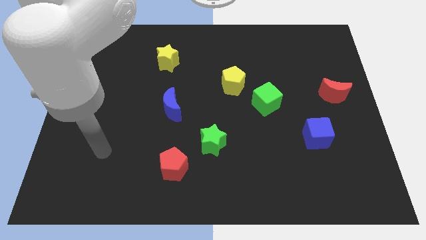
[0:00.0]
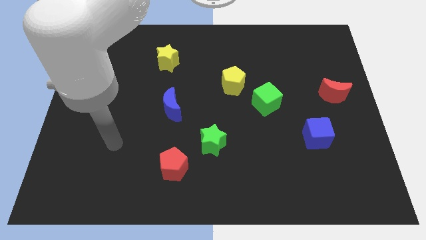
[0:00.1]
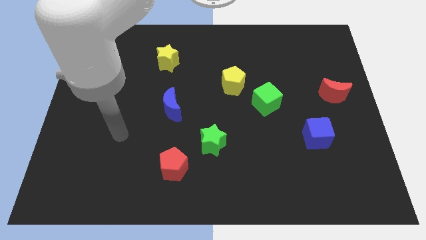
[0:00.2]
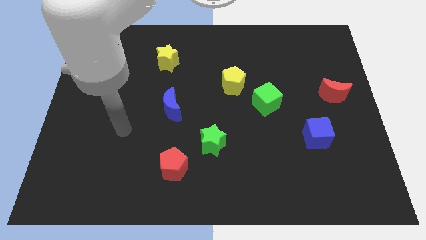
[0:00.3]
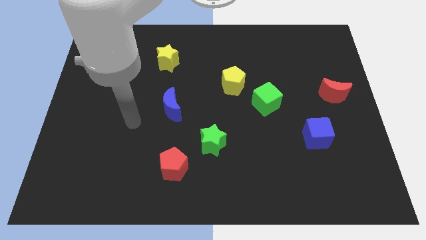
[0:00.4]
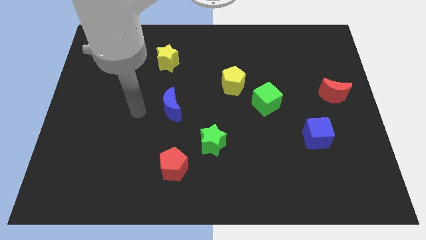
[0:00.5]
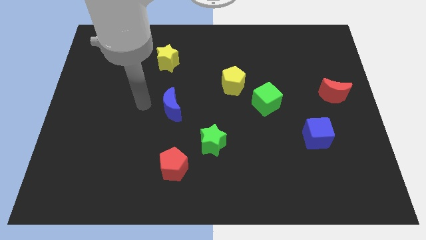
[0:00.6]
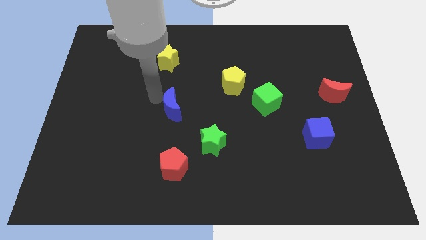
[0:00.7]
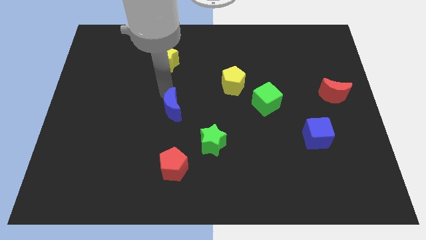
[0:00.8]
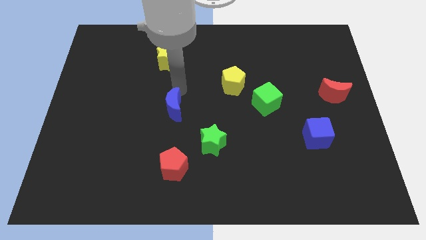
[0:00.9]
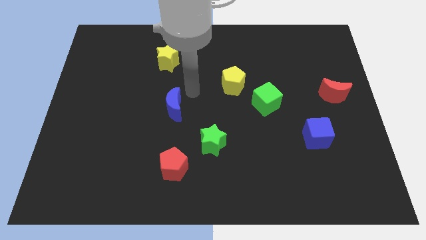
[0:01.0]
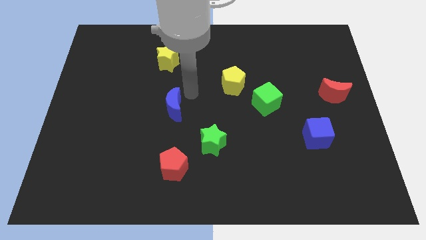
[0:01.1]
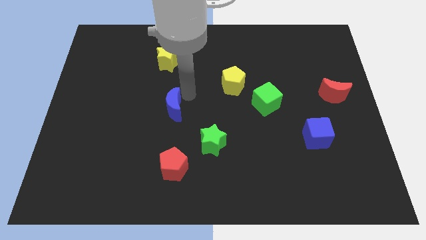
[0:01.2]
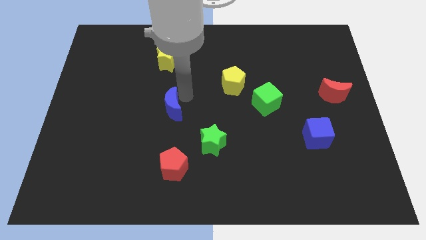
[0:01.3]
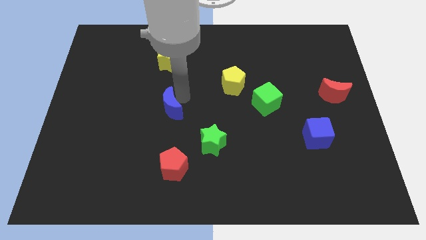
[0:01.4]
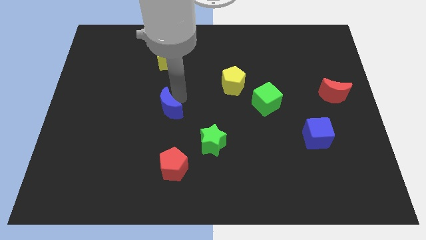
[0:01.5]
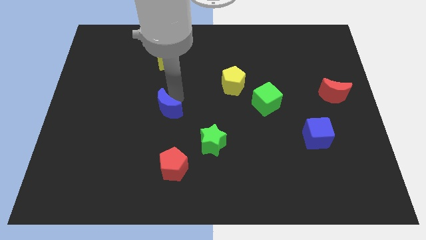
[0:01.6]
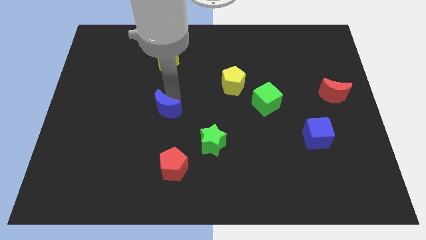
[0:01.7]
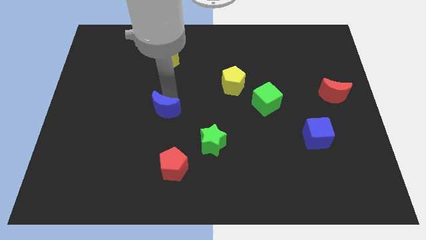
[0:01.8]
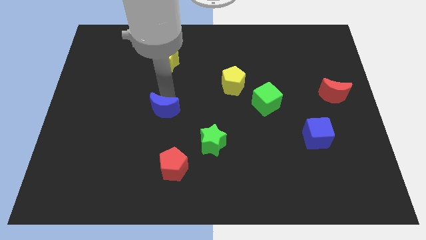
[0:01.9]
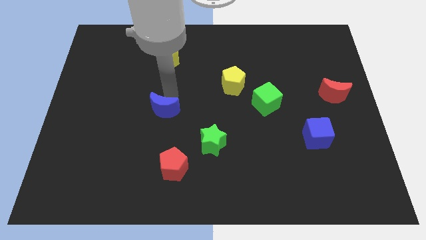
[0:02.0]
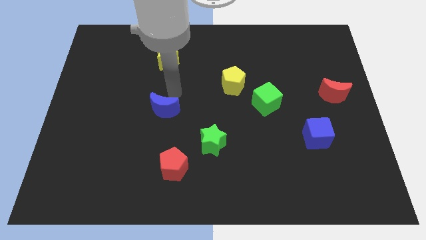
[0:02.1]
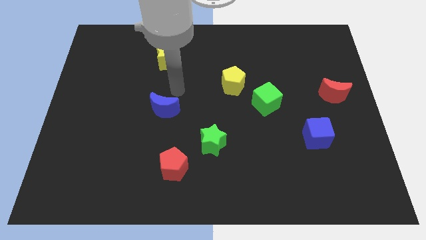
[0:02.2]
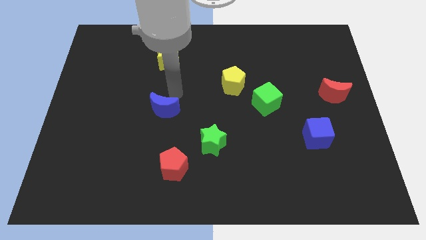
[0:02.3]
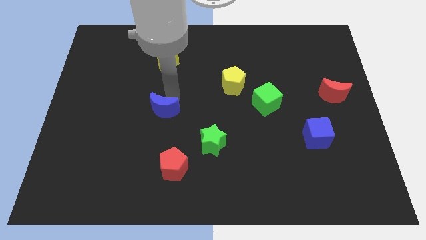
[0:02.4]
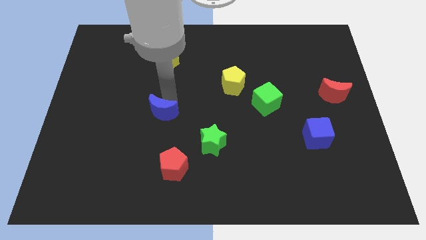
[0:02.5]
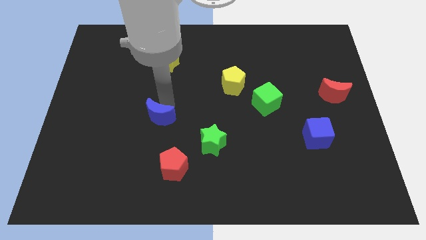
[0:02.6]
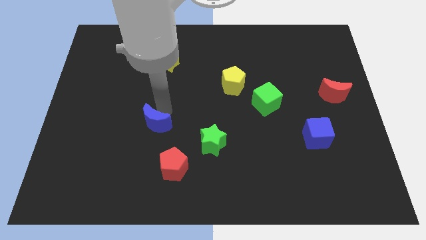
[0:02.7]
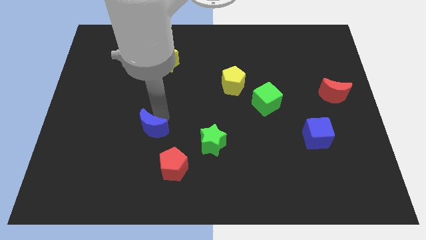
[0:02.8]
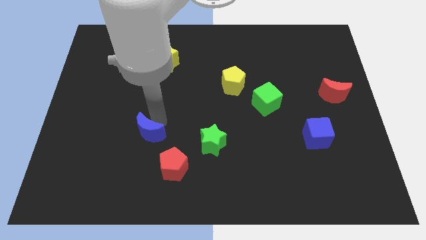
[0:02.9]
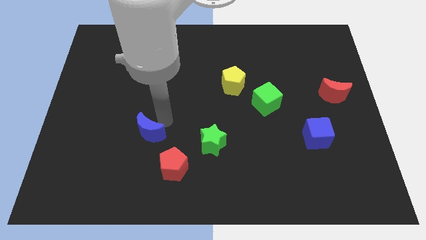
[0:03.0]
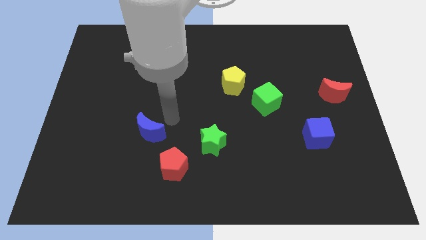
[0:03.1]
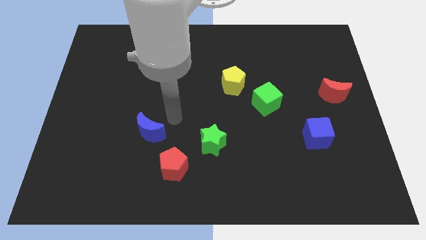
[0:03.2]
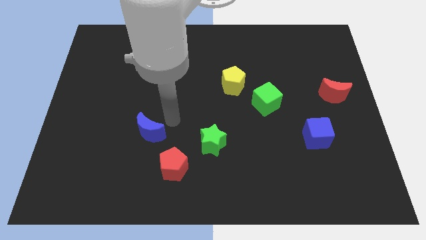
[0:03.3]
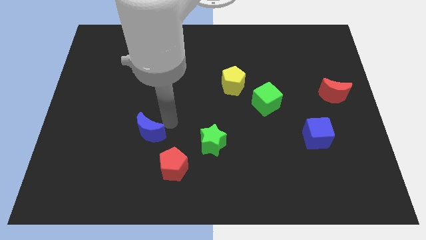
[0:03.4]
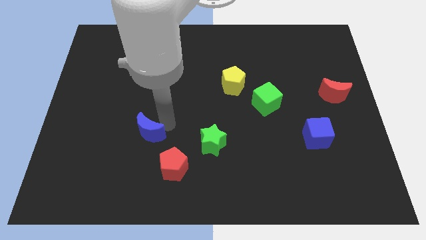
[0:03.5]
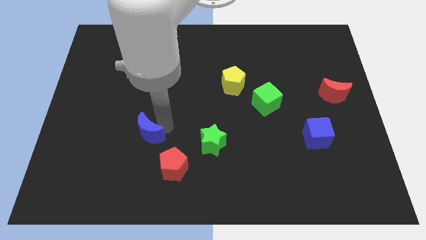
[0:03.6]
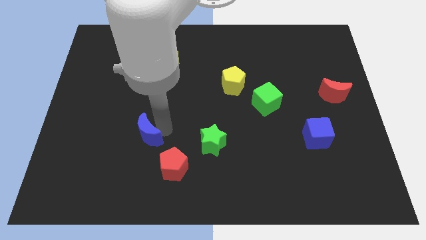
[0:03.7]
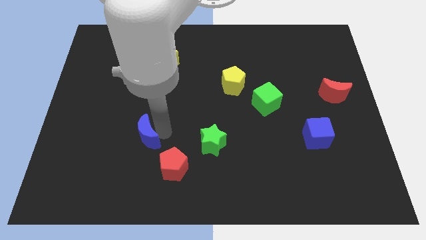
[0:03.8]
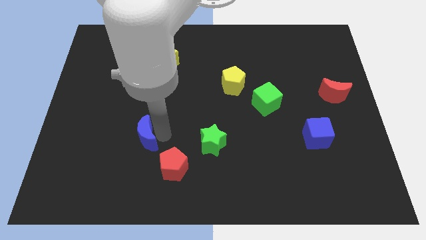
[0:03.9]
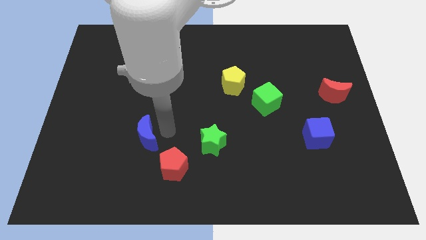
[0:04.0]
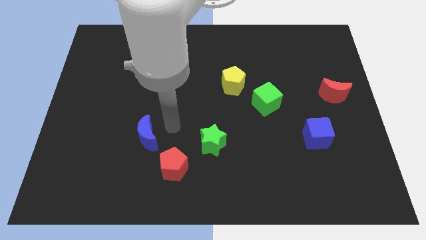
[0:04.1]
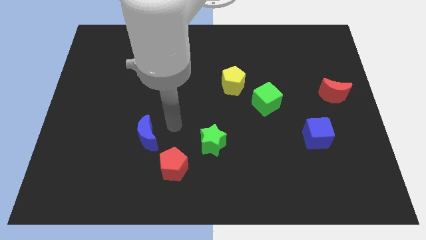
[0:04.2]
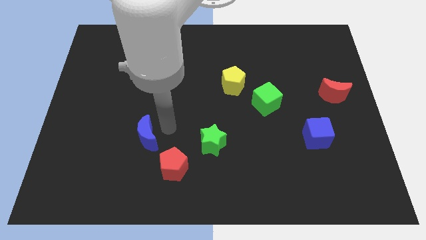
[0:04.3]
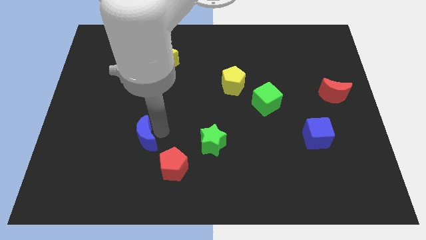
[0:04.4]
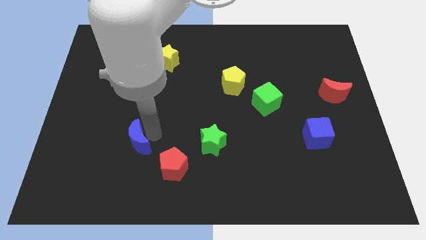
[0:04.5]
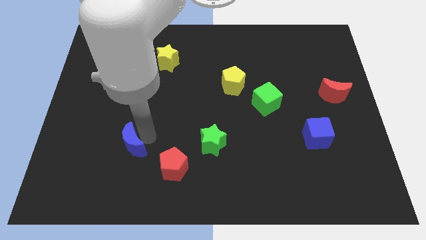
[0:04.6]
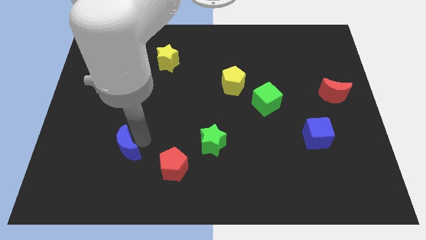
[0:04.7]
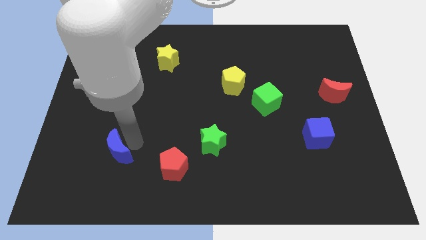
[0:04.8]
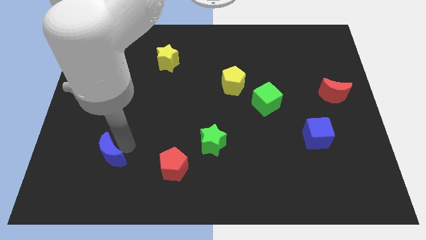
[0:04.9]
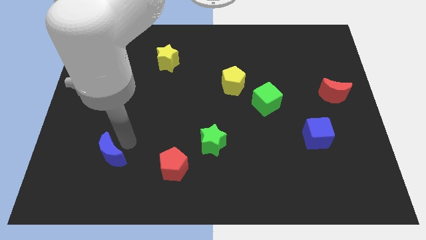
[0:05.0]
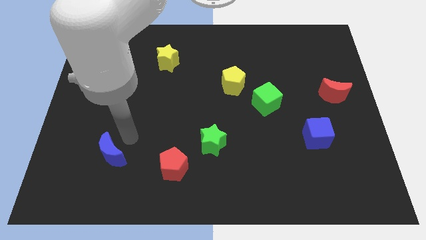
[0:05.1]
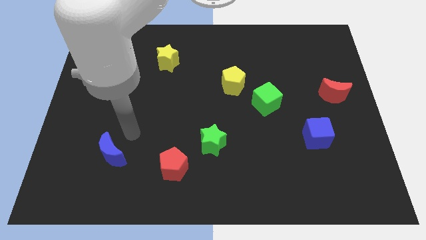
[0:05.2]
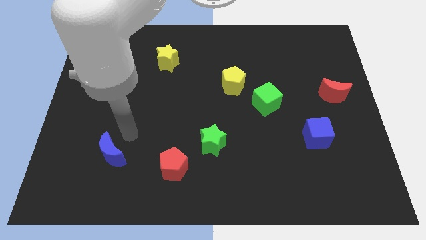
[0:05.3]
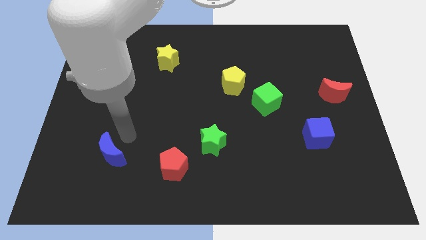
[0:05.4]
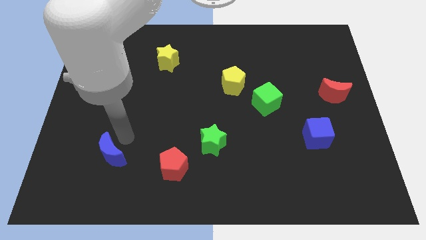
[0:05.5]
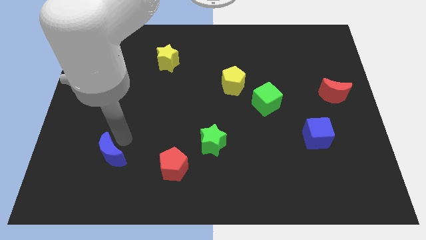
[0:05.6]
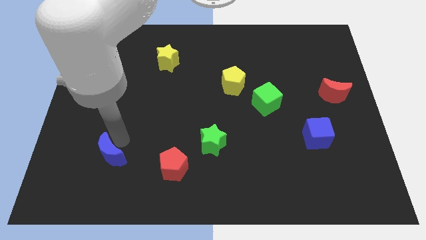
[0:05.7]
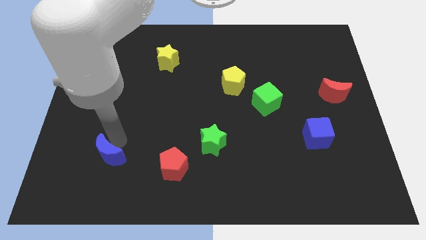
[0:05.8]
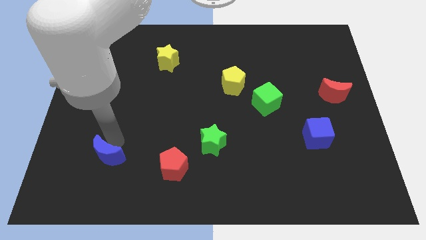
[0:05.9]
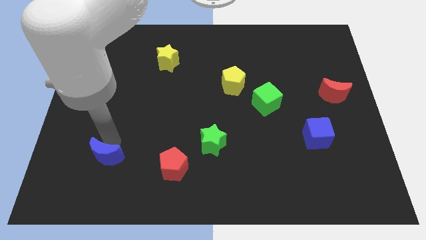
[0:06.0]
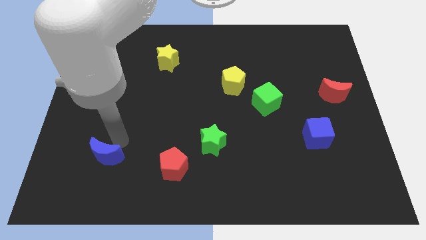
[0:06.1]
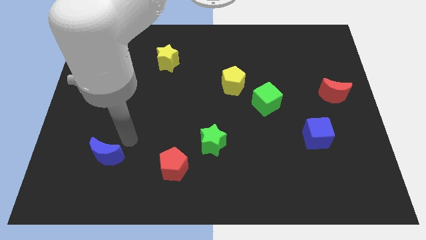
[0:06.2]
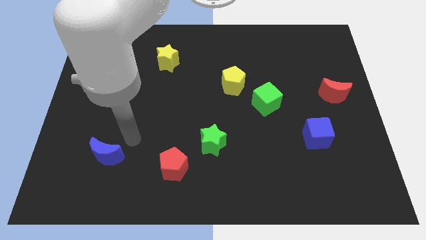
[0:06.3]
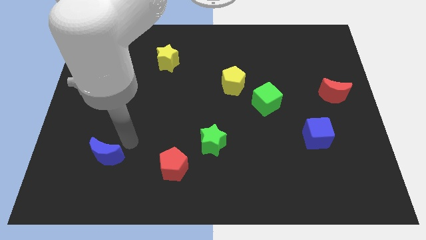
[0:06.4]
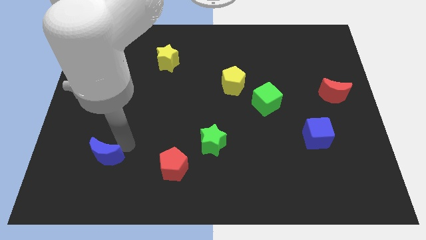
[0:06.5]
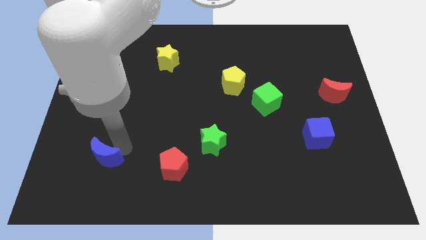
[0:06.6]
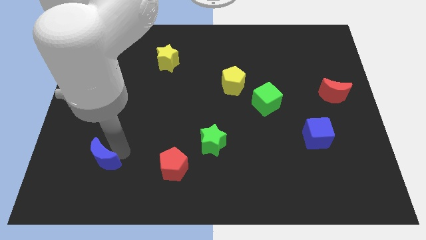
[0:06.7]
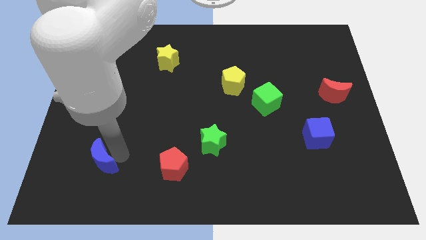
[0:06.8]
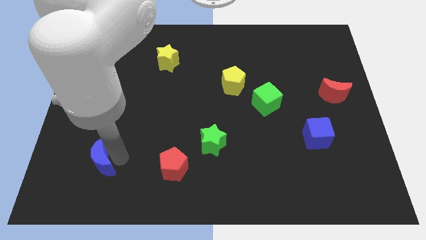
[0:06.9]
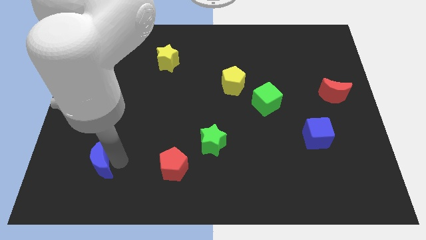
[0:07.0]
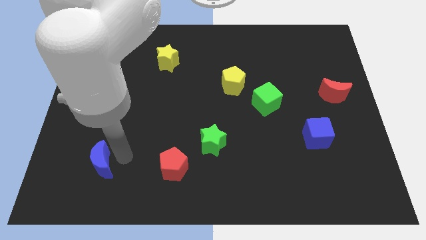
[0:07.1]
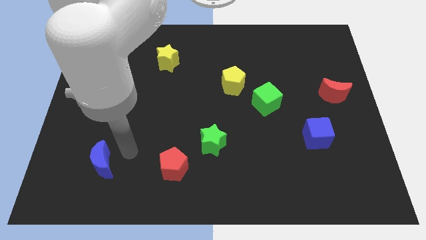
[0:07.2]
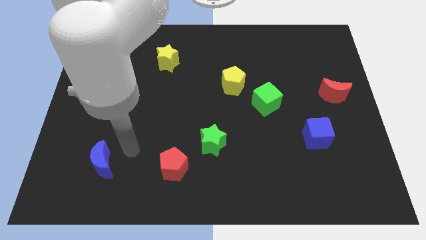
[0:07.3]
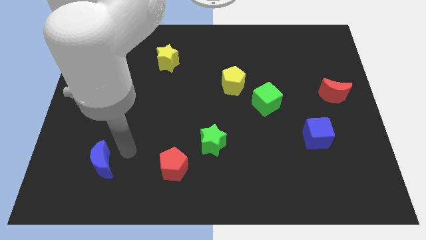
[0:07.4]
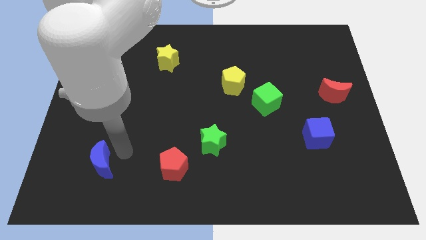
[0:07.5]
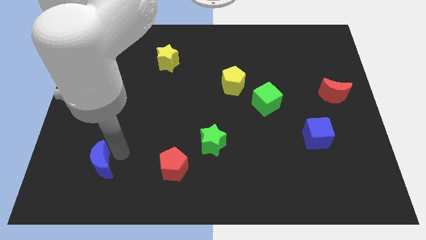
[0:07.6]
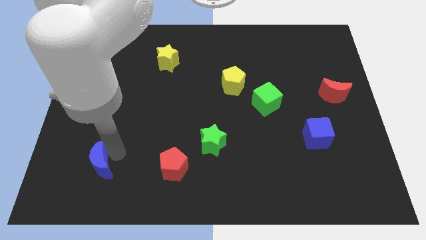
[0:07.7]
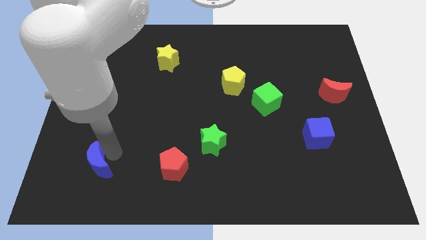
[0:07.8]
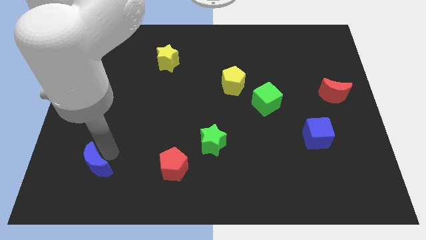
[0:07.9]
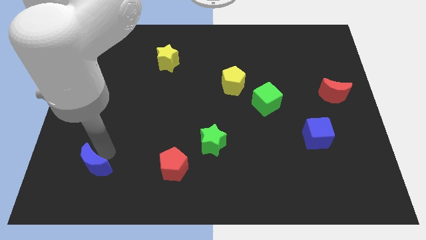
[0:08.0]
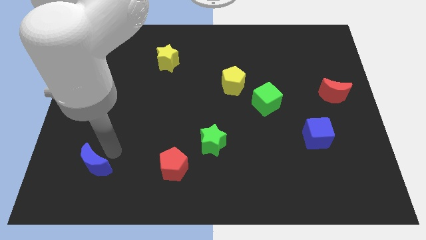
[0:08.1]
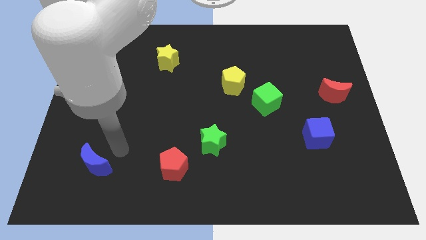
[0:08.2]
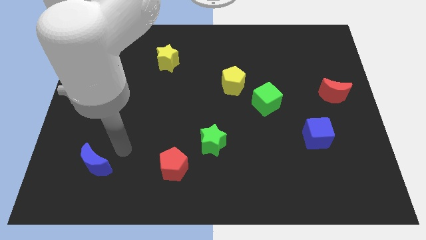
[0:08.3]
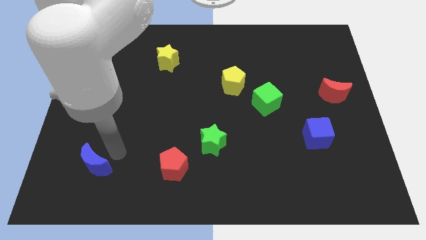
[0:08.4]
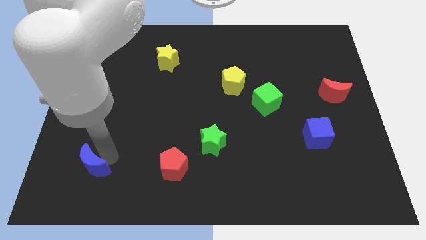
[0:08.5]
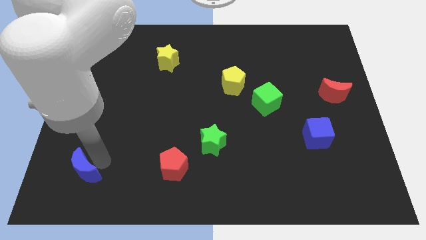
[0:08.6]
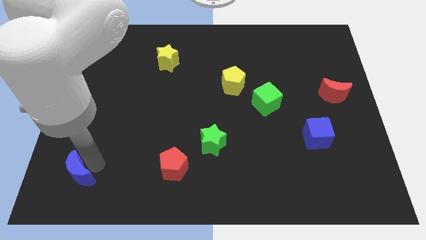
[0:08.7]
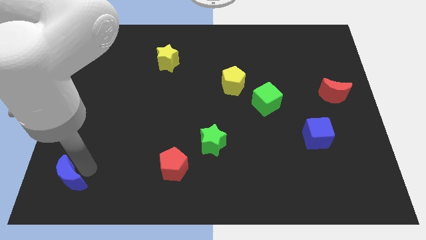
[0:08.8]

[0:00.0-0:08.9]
slide the blue moon to the bottom left of the board
